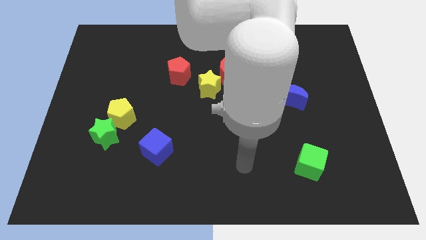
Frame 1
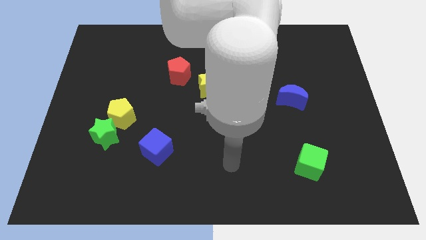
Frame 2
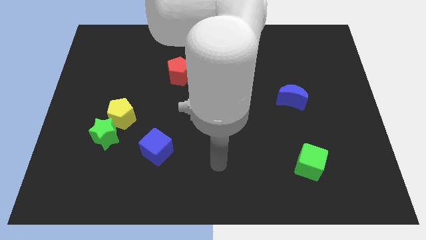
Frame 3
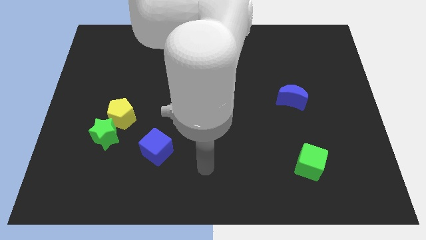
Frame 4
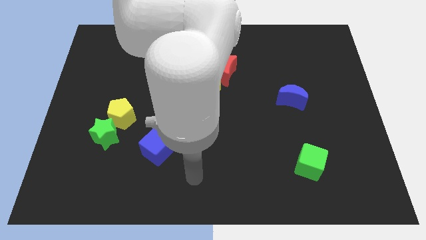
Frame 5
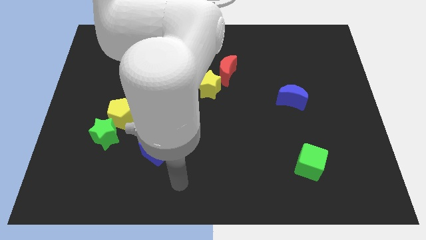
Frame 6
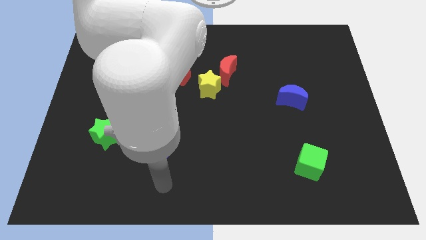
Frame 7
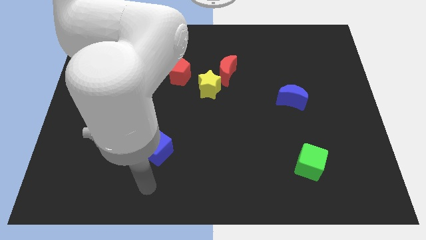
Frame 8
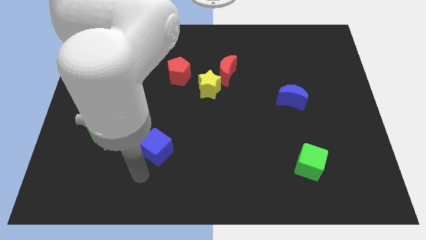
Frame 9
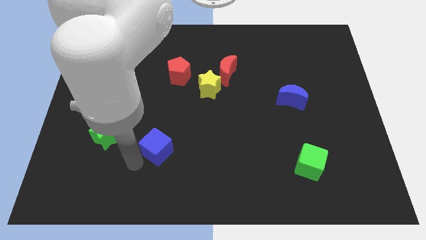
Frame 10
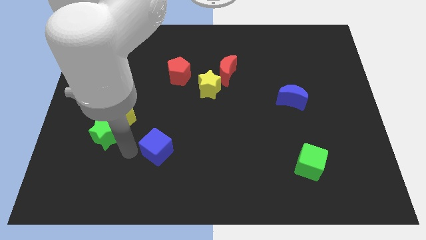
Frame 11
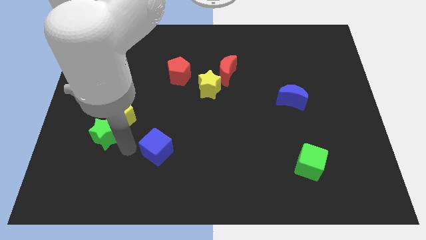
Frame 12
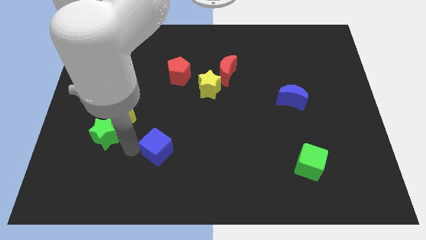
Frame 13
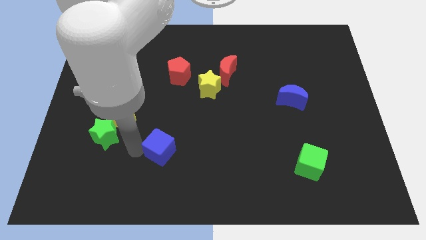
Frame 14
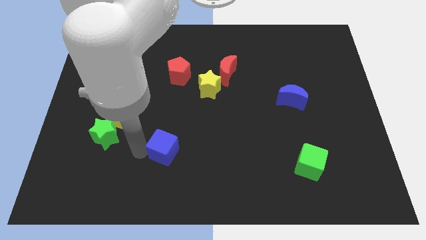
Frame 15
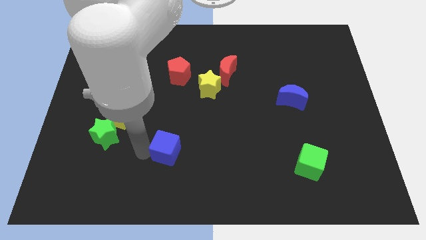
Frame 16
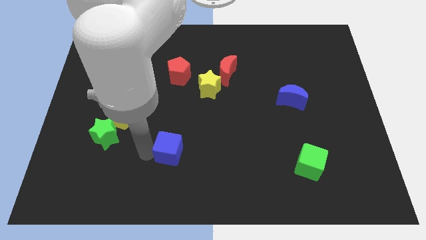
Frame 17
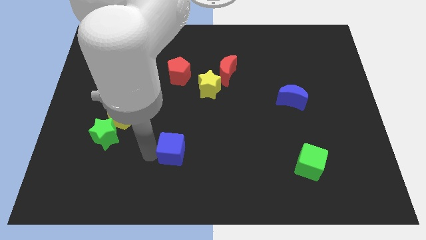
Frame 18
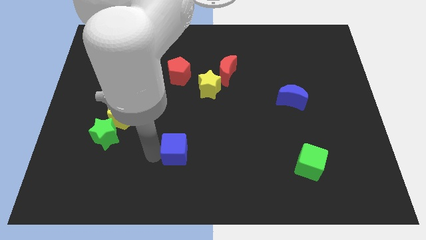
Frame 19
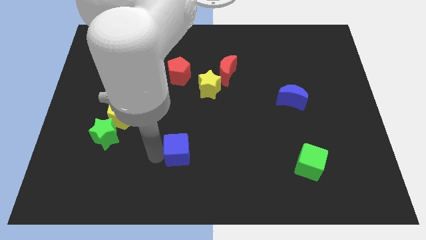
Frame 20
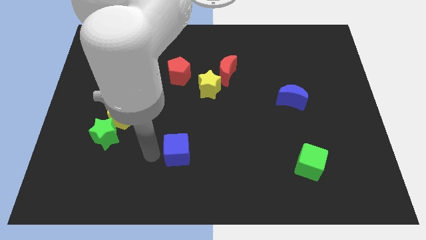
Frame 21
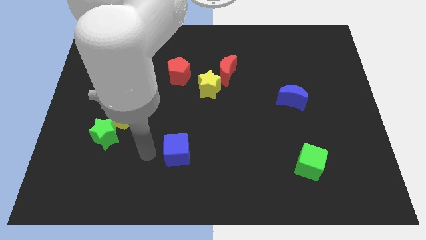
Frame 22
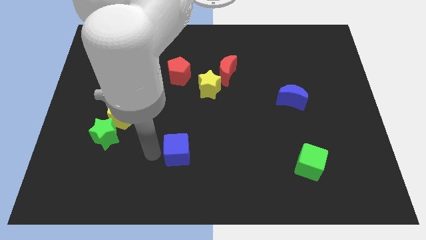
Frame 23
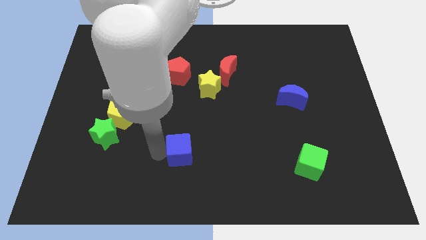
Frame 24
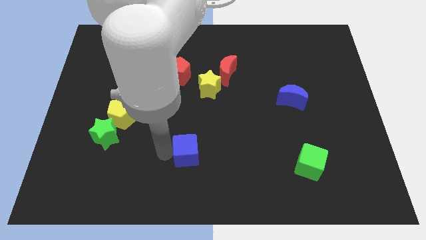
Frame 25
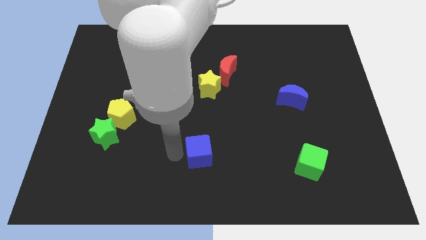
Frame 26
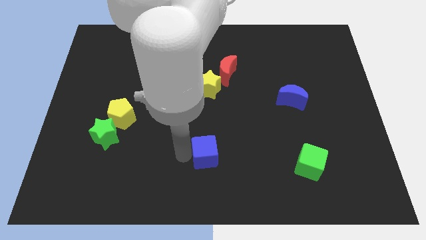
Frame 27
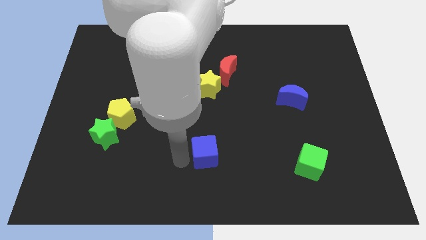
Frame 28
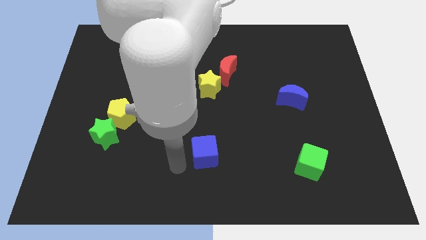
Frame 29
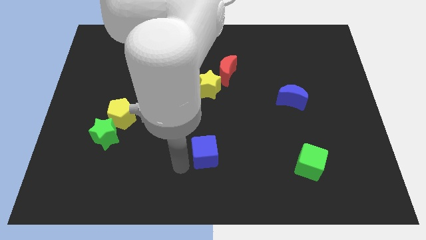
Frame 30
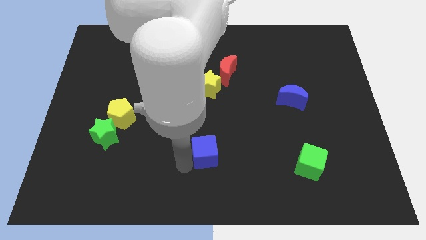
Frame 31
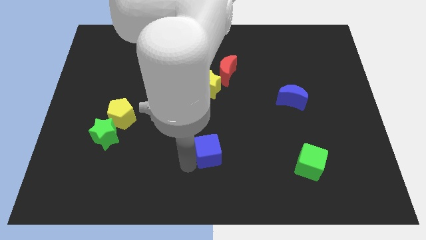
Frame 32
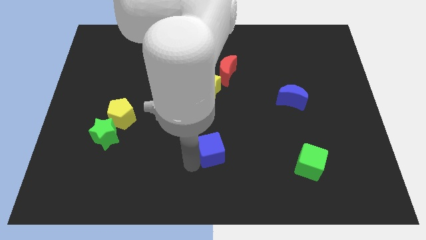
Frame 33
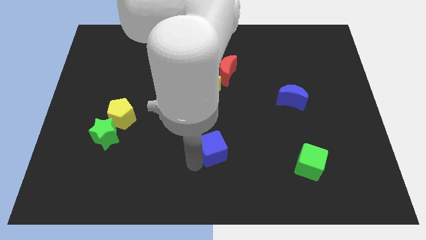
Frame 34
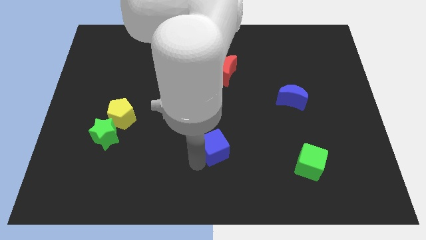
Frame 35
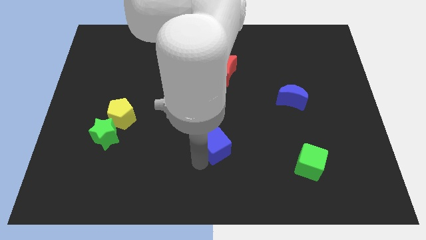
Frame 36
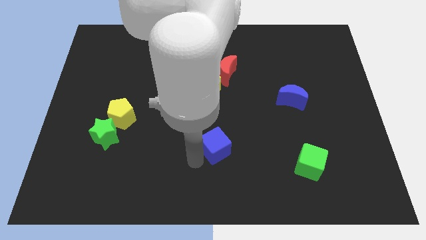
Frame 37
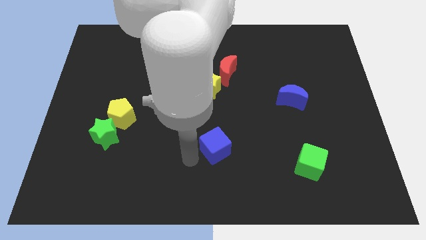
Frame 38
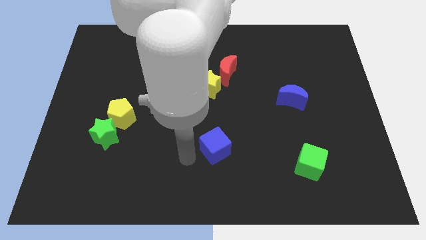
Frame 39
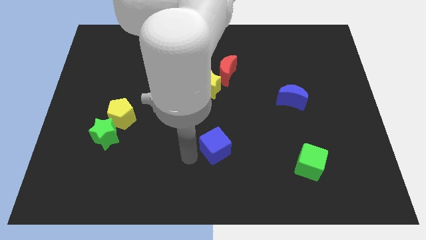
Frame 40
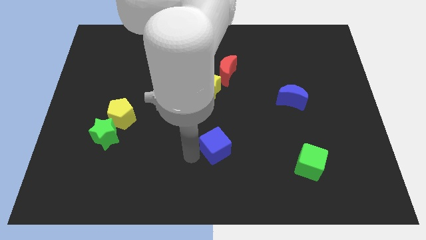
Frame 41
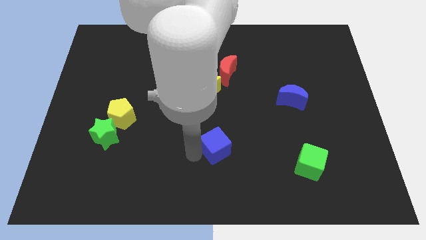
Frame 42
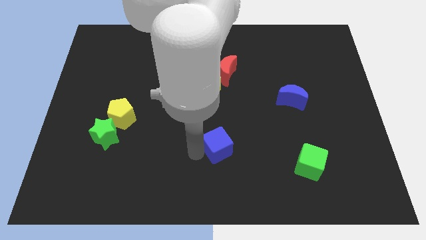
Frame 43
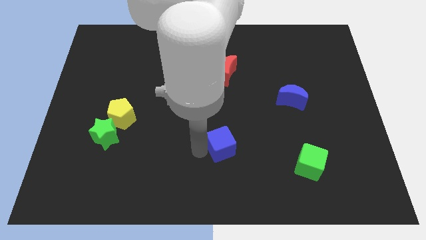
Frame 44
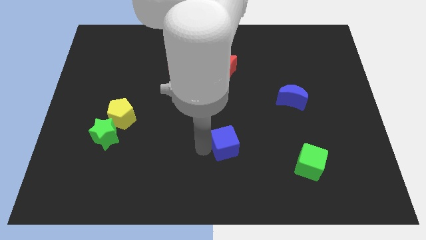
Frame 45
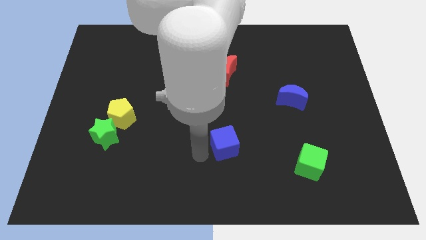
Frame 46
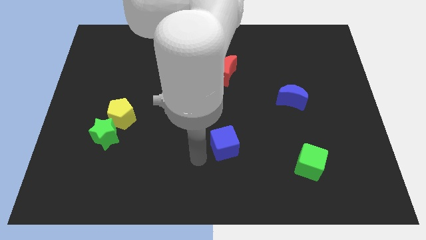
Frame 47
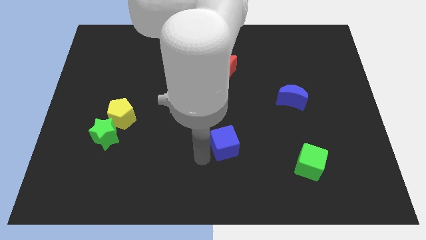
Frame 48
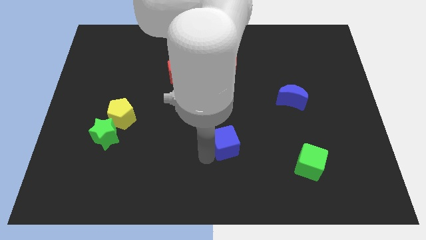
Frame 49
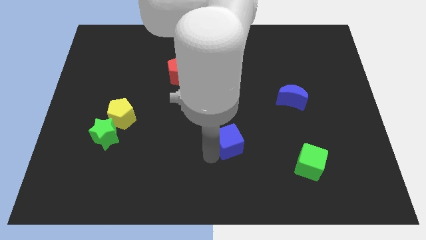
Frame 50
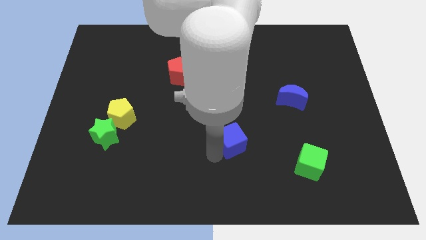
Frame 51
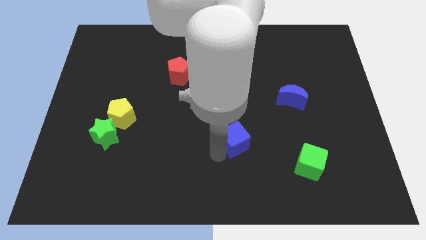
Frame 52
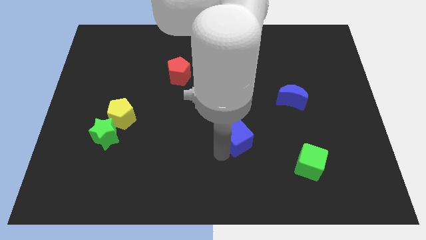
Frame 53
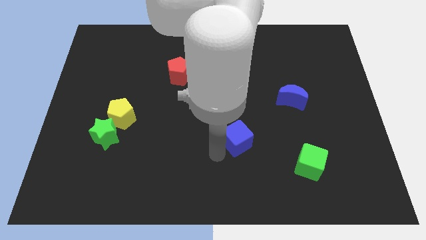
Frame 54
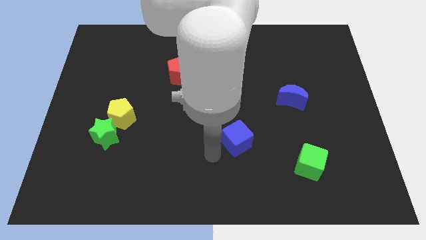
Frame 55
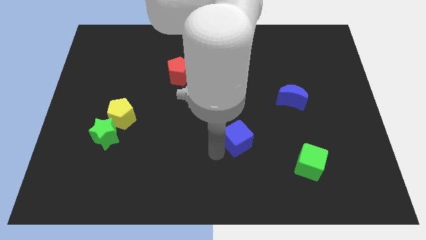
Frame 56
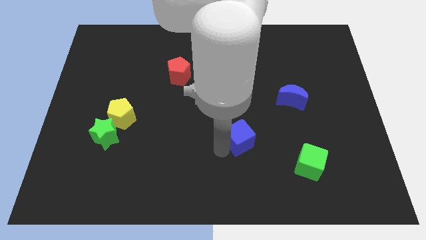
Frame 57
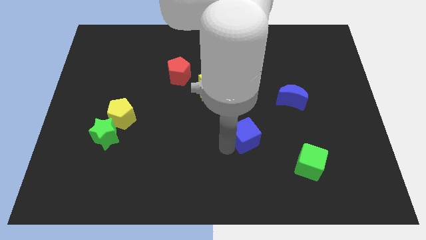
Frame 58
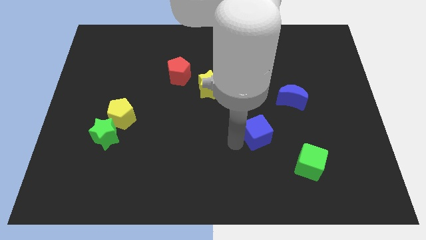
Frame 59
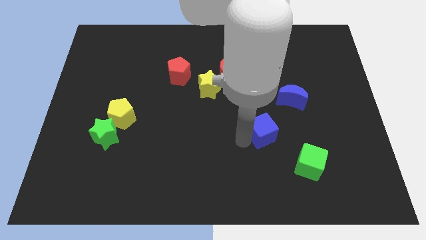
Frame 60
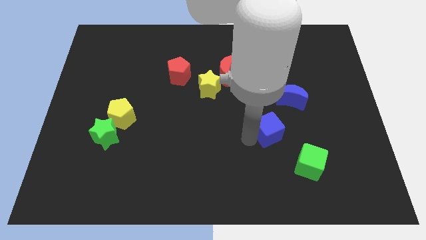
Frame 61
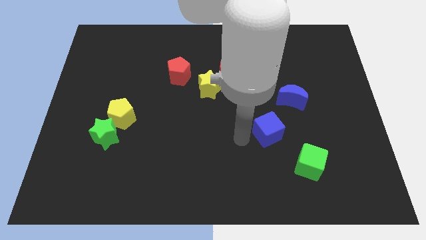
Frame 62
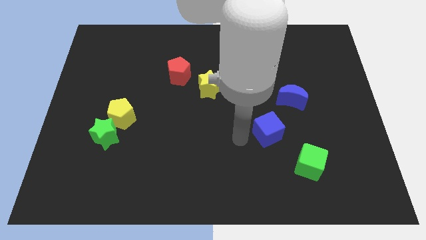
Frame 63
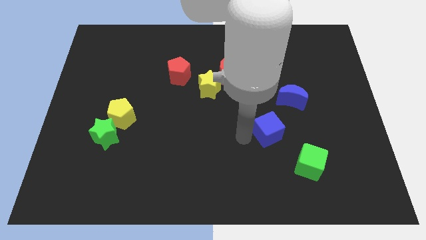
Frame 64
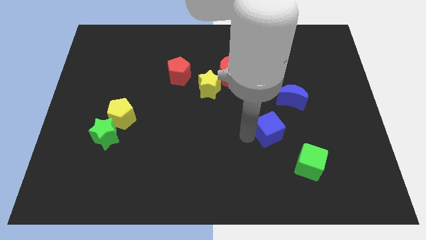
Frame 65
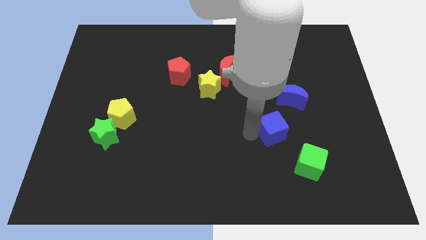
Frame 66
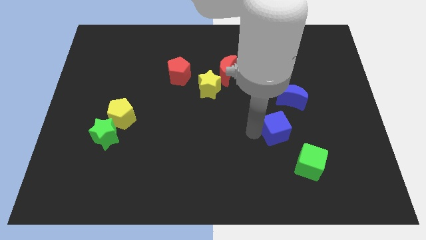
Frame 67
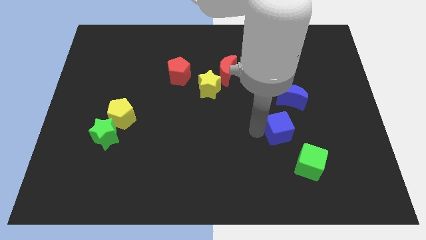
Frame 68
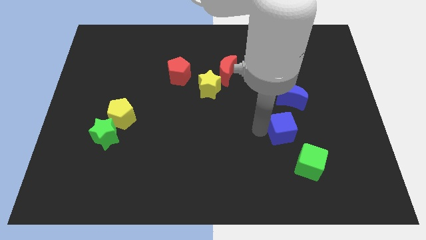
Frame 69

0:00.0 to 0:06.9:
slide the blue cube to the top of the green cube
